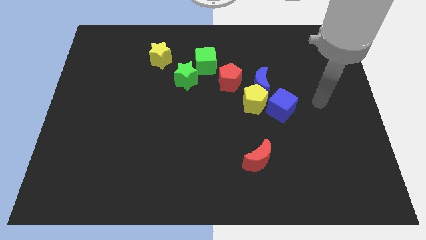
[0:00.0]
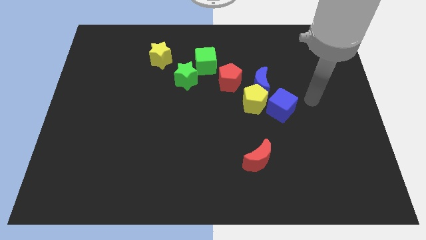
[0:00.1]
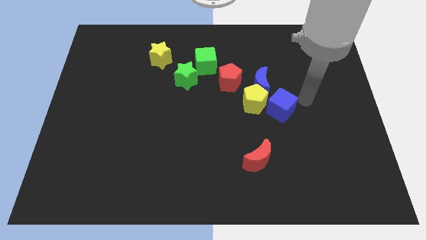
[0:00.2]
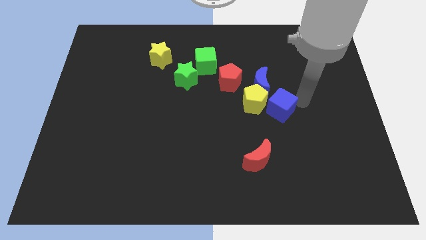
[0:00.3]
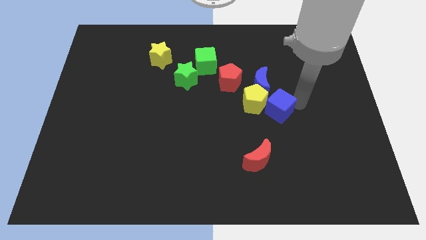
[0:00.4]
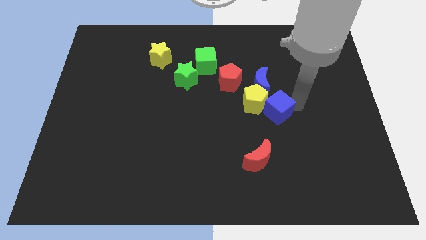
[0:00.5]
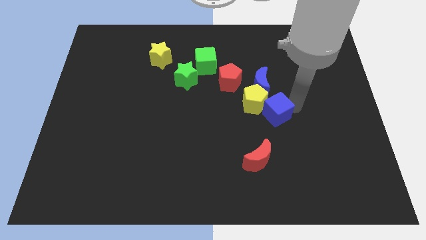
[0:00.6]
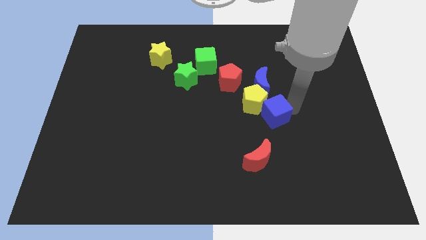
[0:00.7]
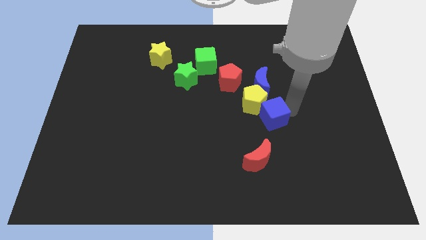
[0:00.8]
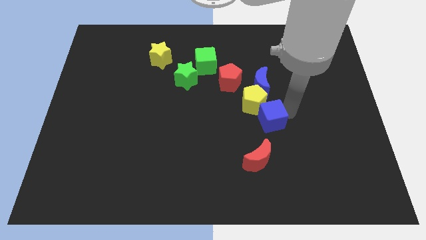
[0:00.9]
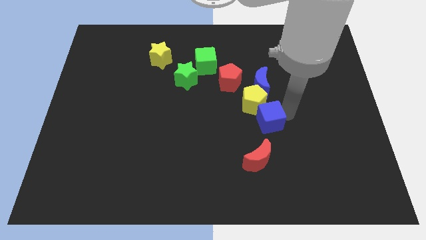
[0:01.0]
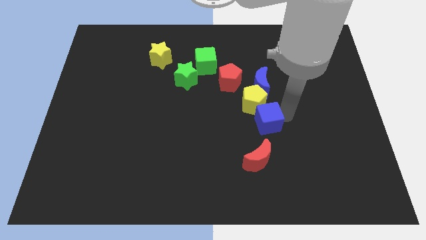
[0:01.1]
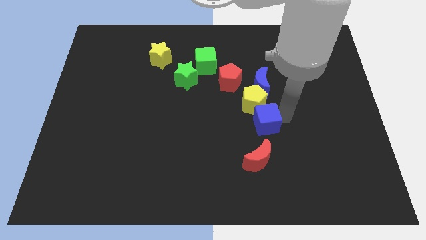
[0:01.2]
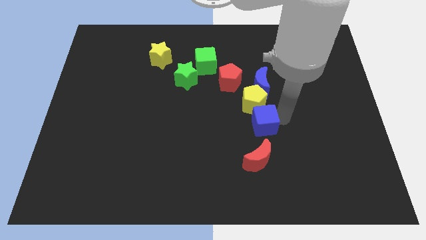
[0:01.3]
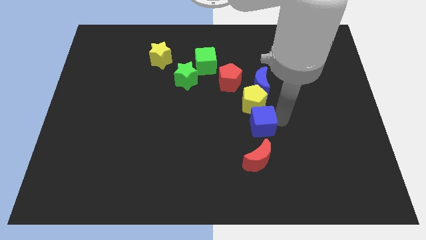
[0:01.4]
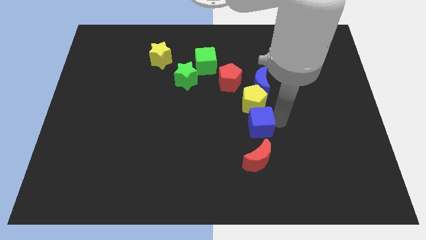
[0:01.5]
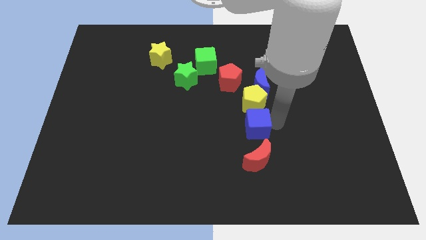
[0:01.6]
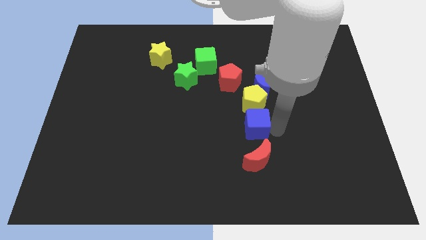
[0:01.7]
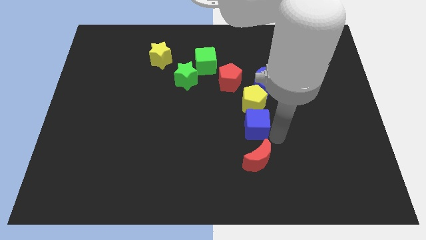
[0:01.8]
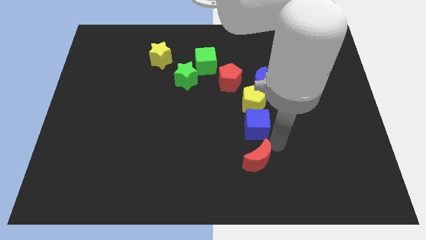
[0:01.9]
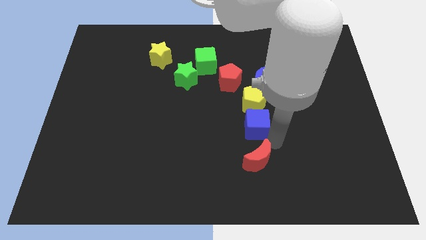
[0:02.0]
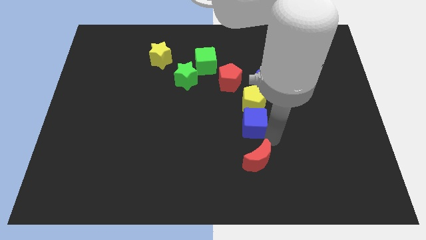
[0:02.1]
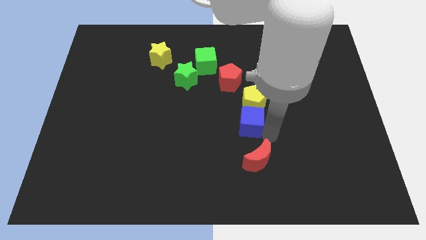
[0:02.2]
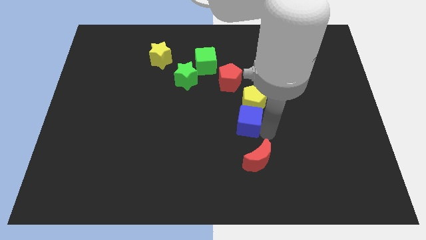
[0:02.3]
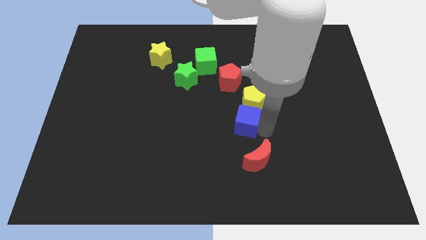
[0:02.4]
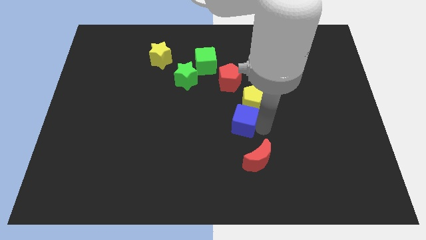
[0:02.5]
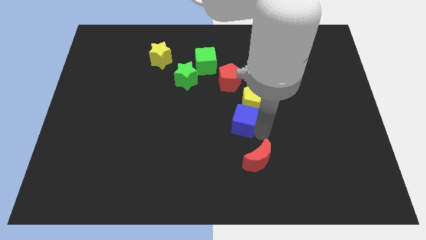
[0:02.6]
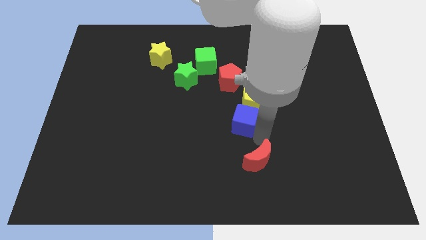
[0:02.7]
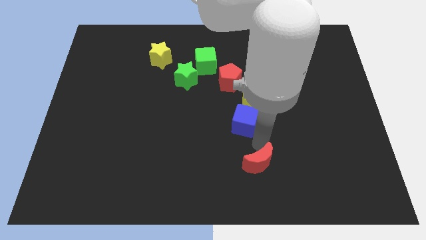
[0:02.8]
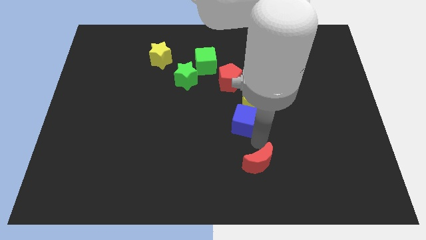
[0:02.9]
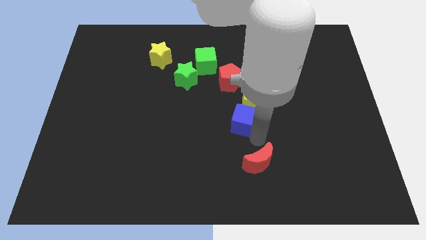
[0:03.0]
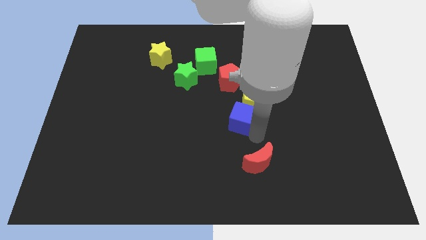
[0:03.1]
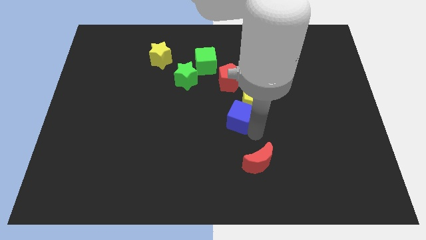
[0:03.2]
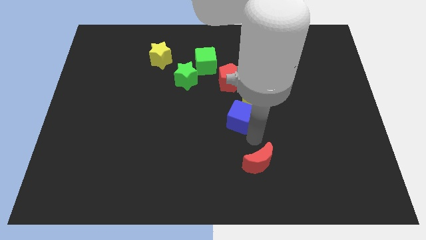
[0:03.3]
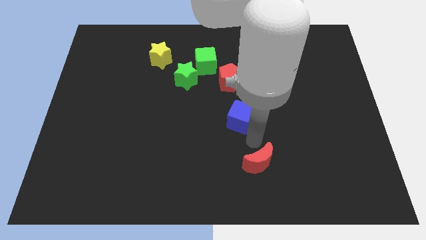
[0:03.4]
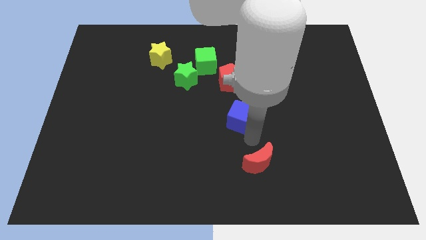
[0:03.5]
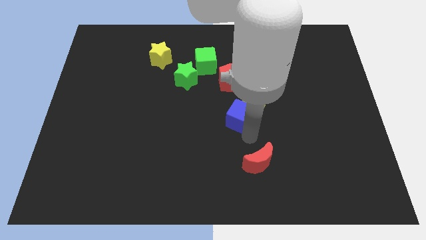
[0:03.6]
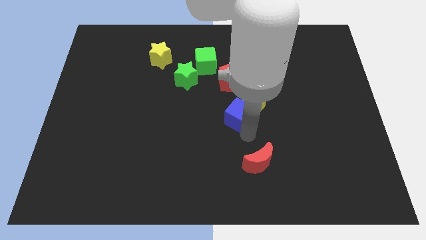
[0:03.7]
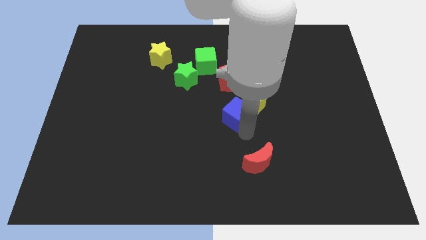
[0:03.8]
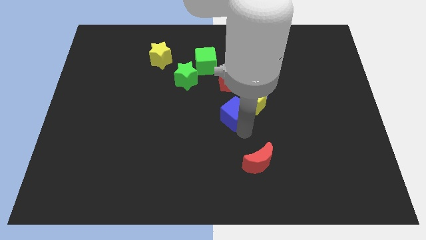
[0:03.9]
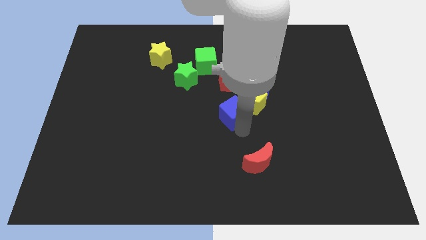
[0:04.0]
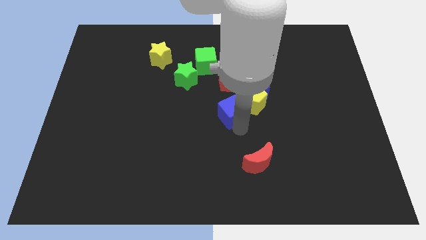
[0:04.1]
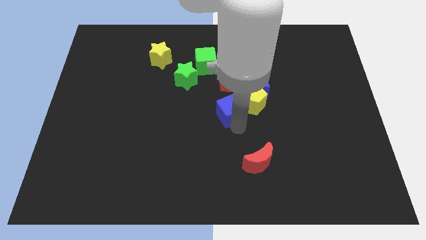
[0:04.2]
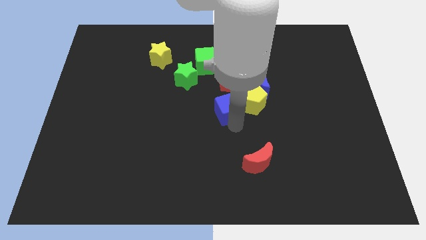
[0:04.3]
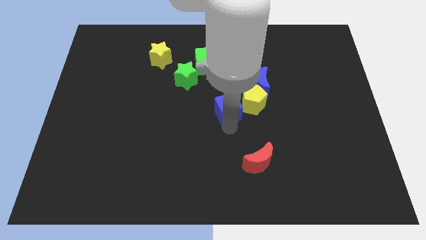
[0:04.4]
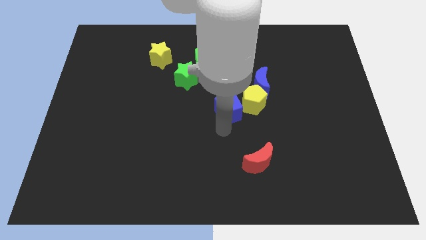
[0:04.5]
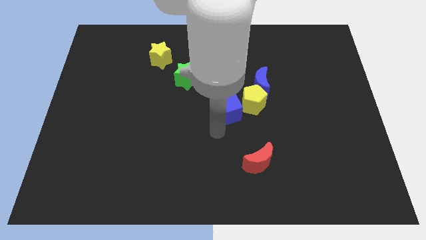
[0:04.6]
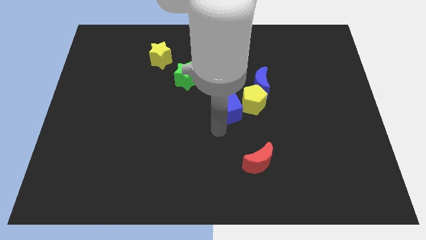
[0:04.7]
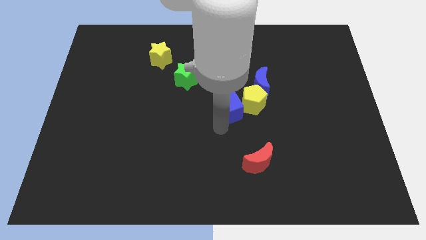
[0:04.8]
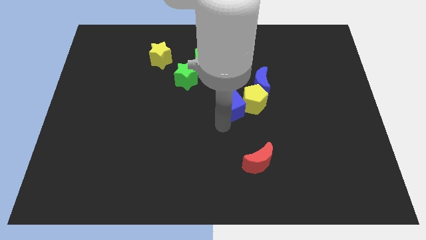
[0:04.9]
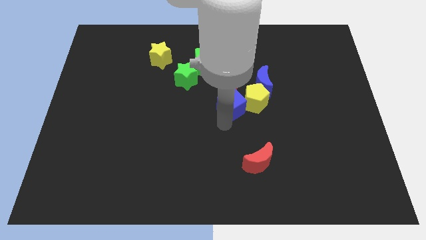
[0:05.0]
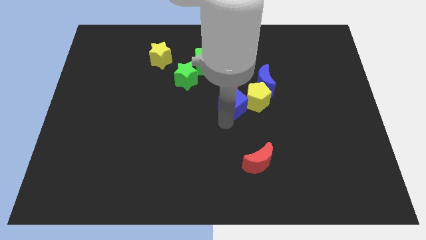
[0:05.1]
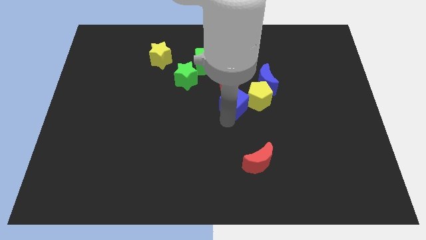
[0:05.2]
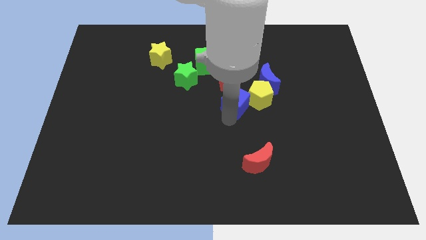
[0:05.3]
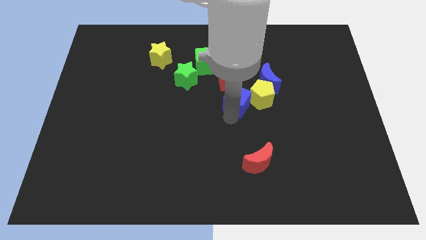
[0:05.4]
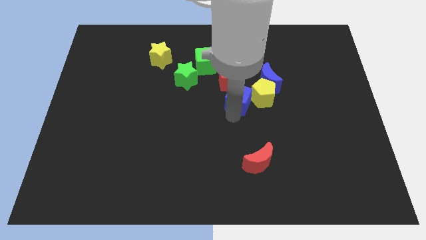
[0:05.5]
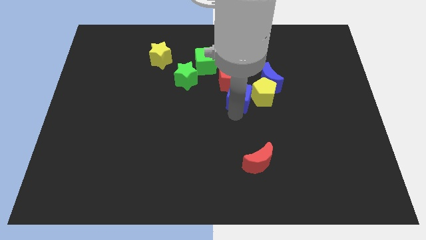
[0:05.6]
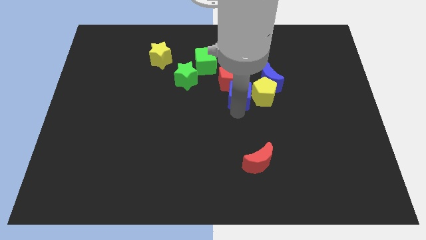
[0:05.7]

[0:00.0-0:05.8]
push the blue cube close to the red pentagon

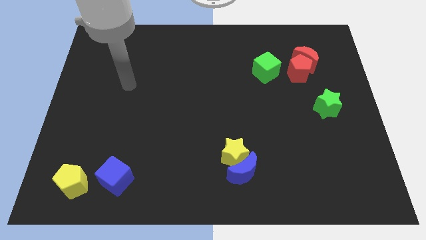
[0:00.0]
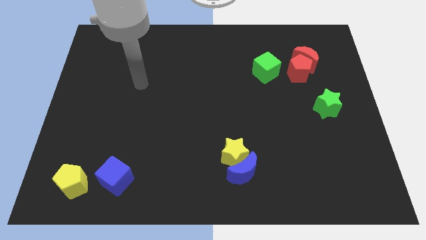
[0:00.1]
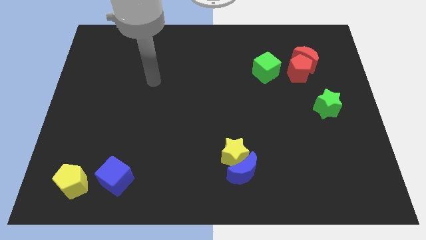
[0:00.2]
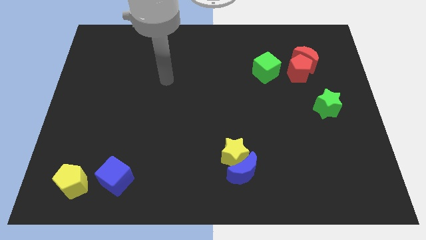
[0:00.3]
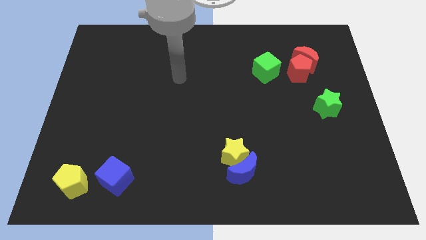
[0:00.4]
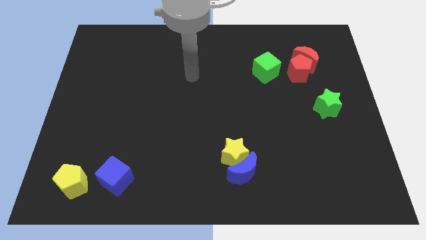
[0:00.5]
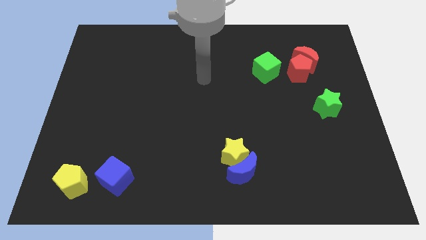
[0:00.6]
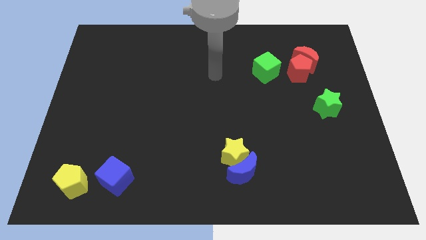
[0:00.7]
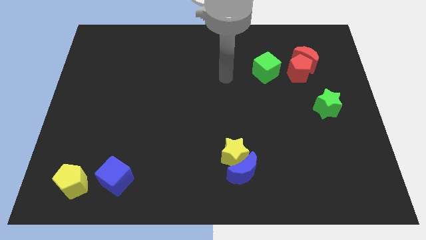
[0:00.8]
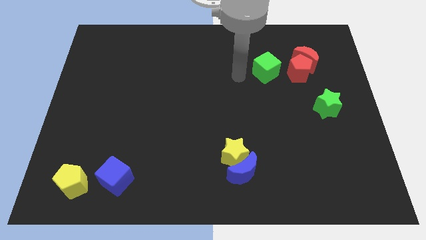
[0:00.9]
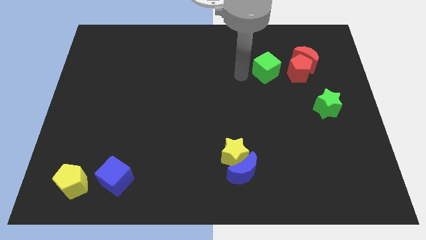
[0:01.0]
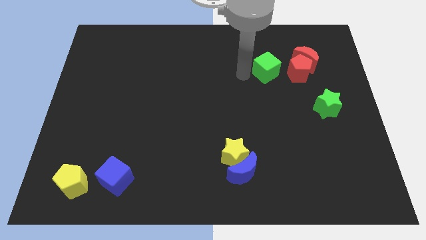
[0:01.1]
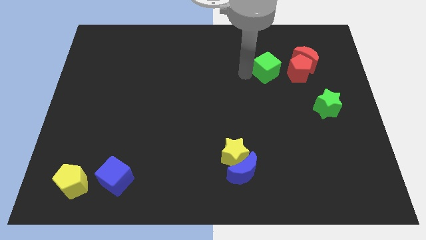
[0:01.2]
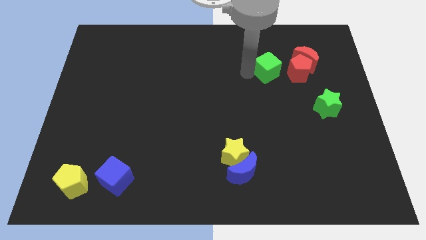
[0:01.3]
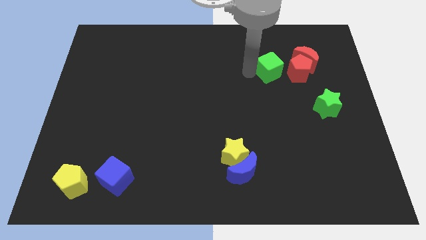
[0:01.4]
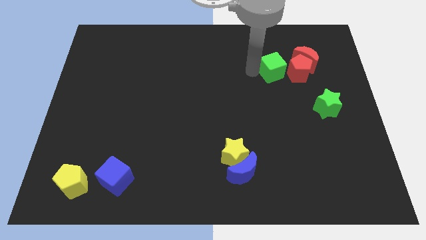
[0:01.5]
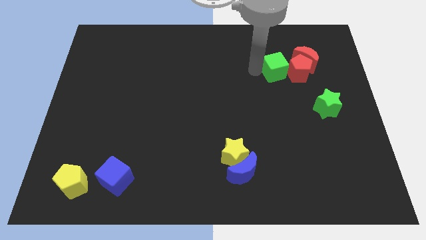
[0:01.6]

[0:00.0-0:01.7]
slide the green cube close to the red pentagon
